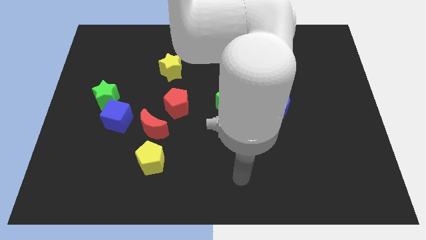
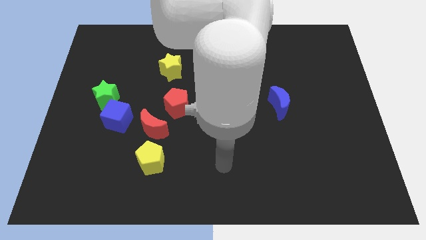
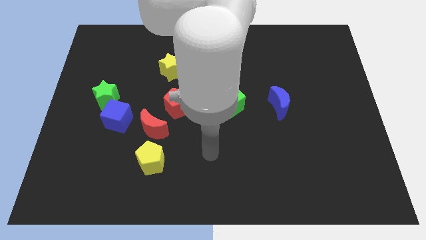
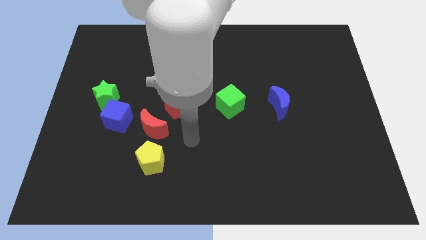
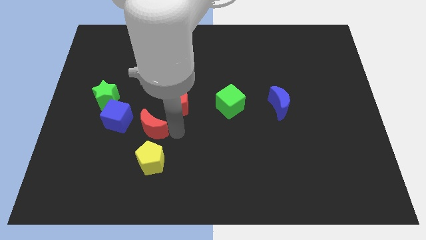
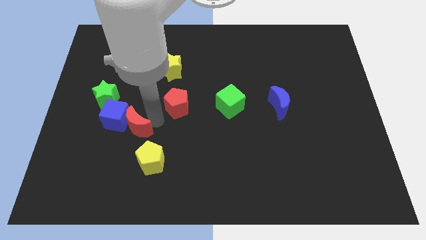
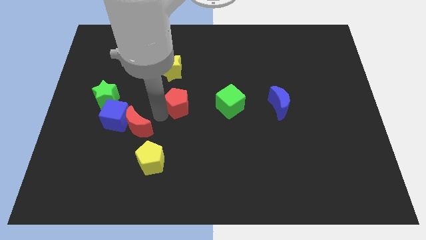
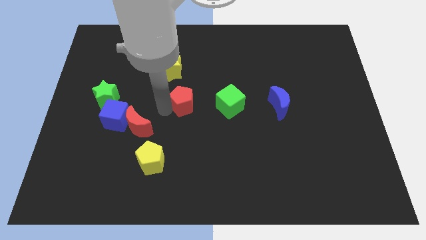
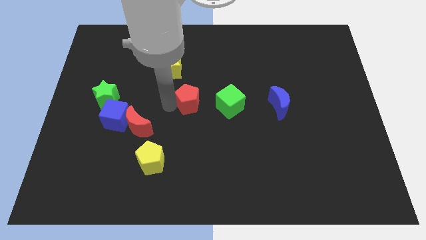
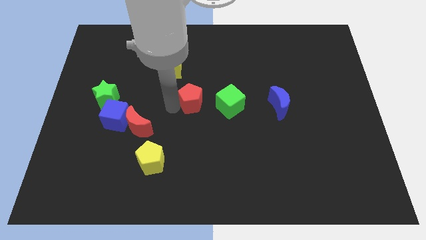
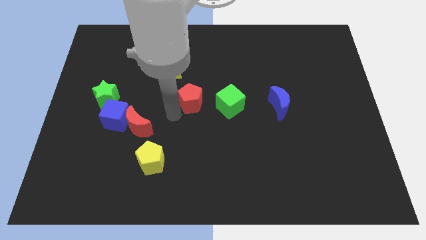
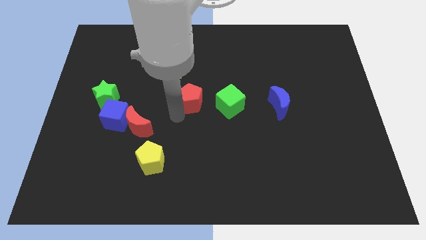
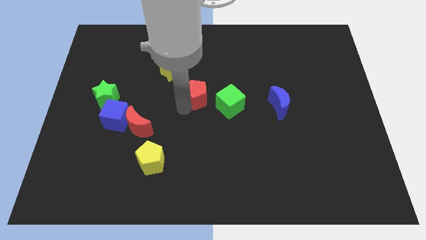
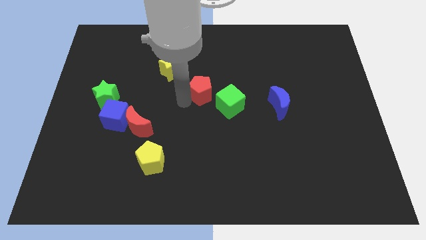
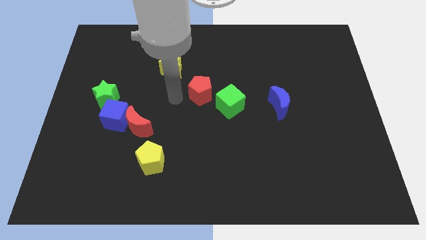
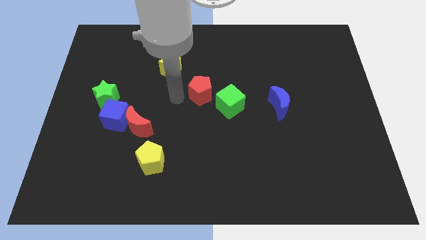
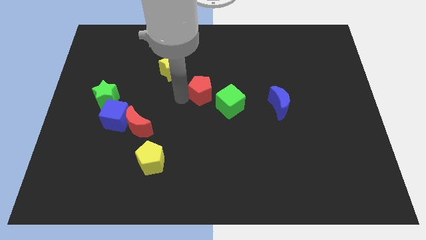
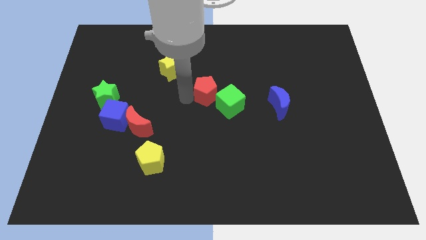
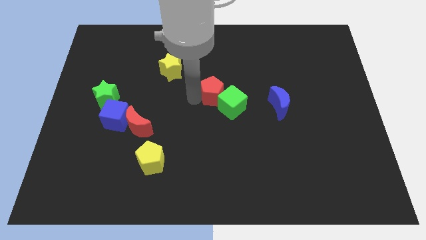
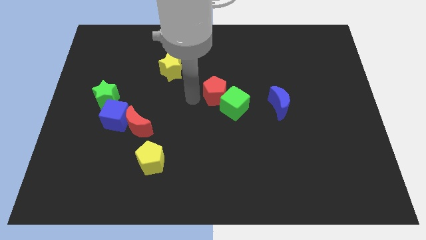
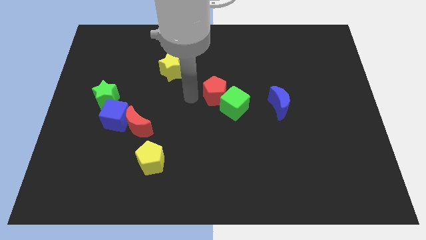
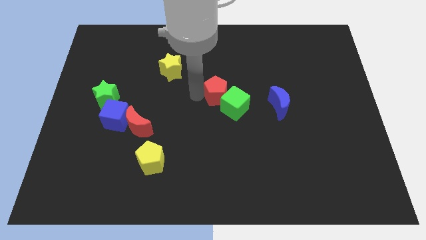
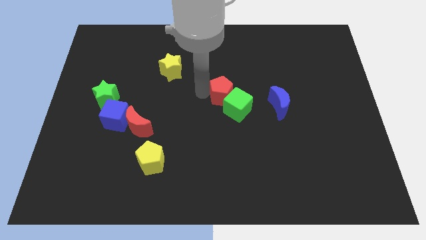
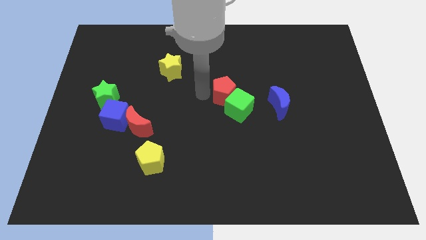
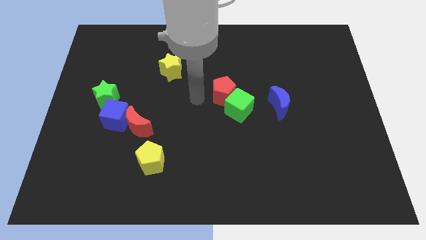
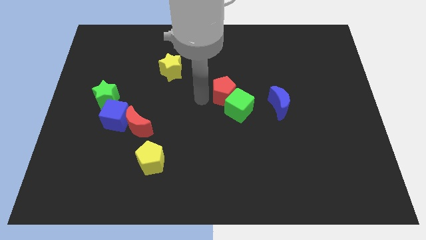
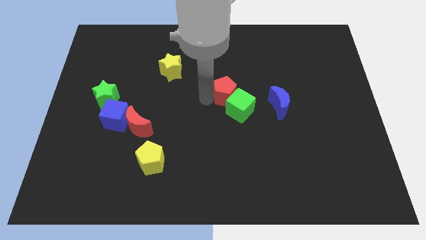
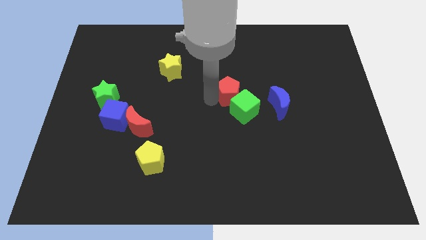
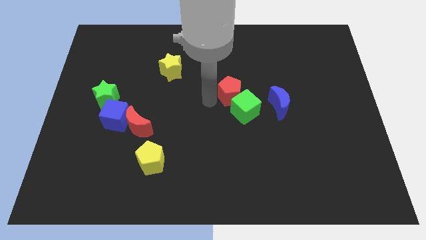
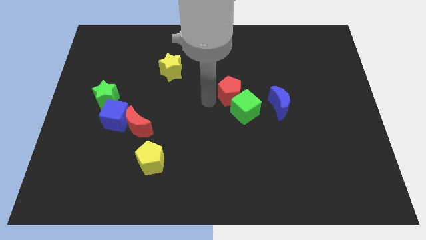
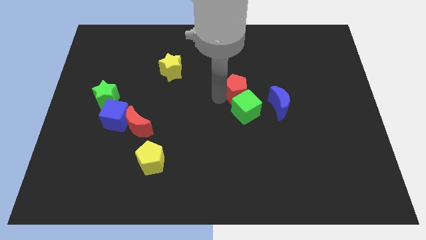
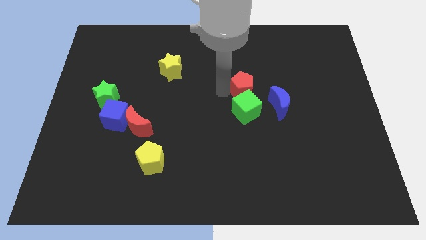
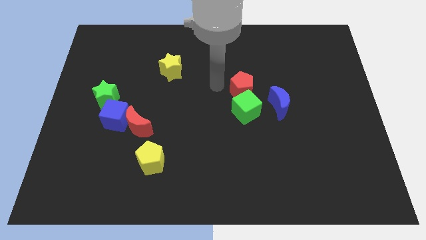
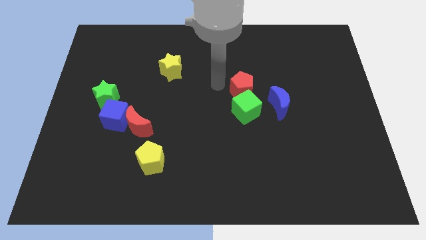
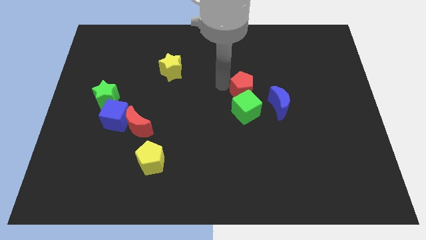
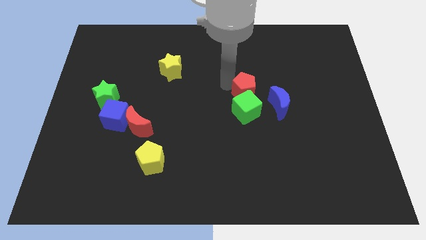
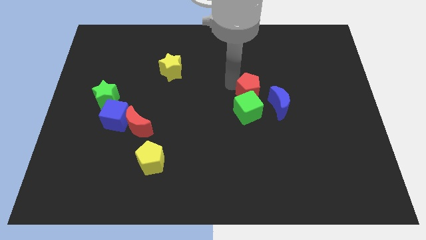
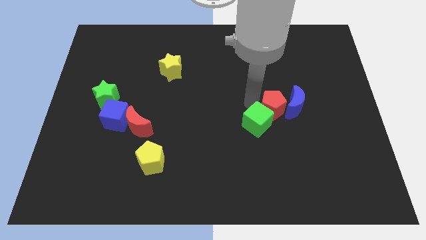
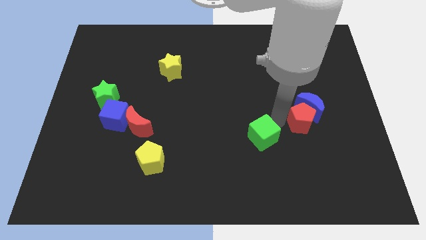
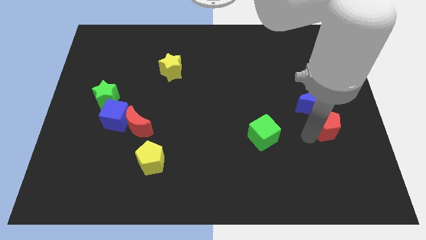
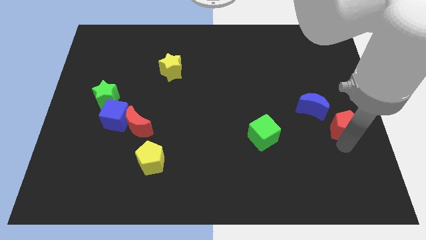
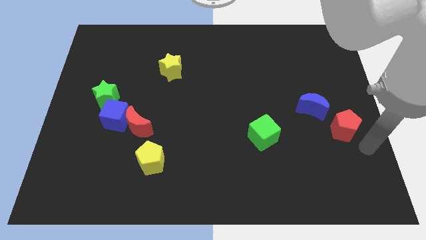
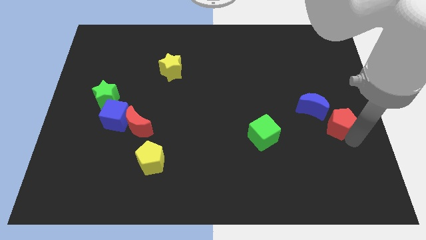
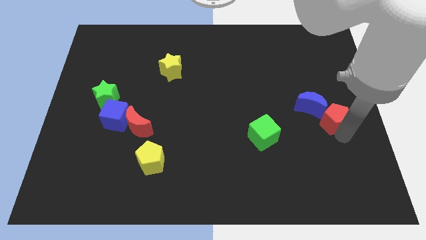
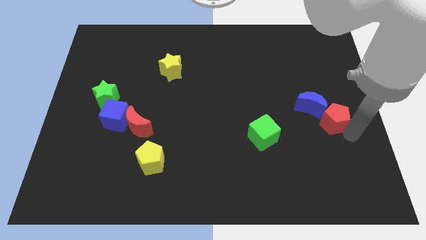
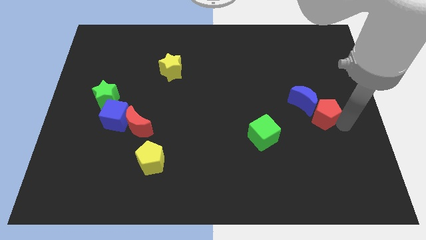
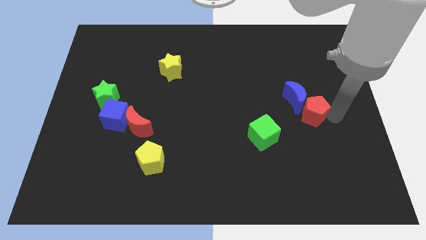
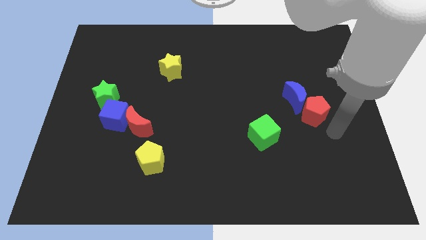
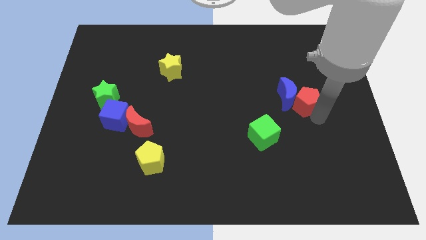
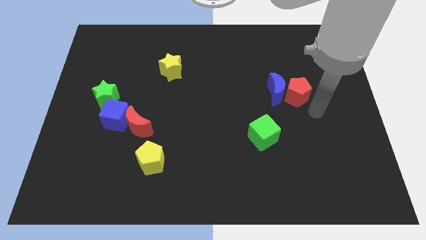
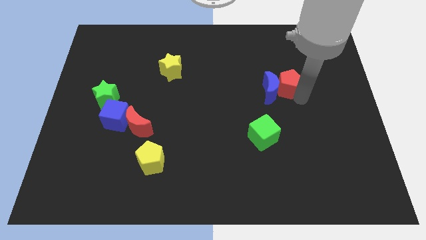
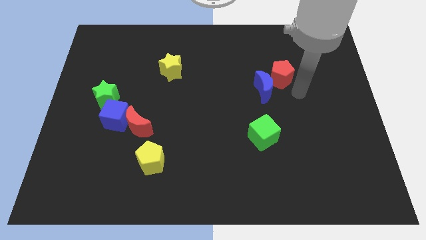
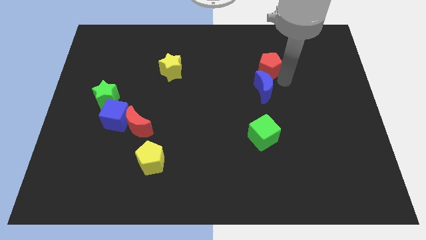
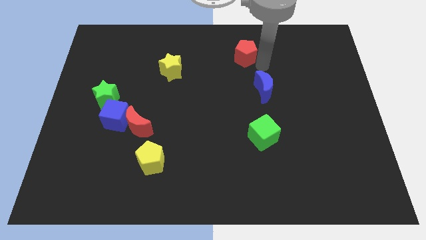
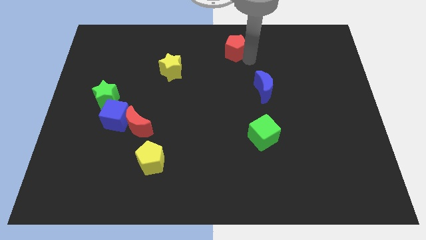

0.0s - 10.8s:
slide the red pentagon to the towards your base

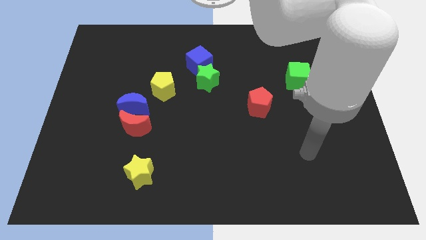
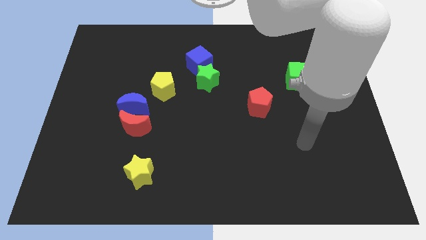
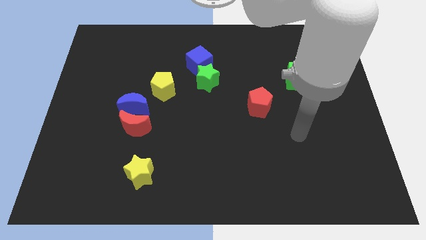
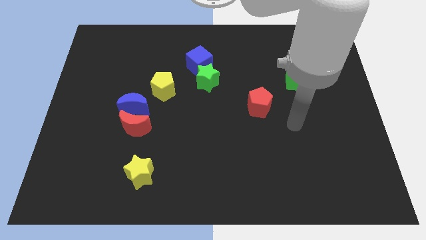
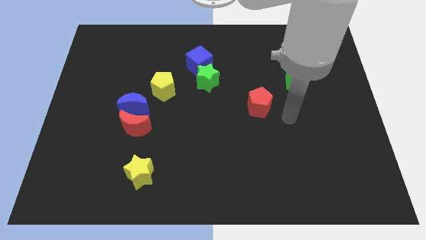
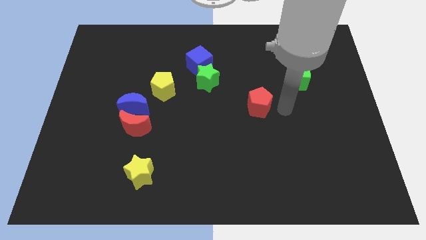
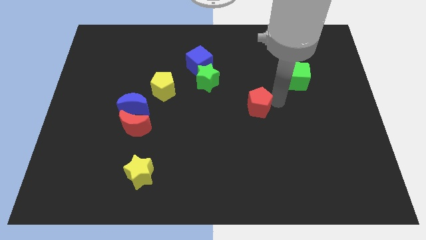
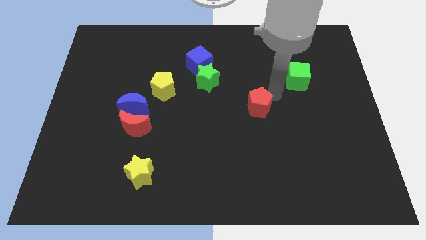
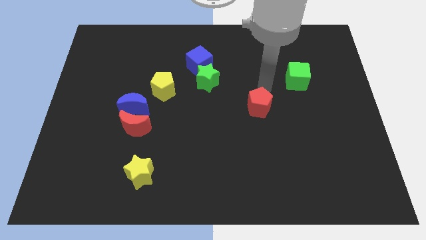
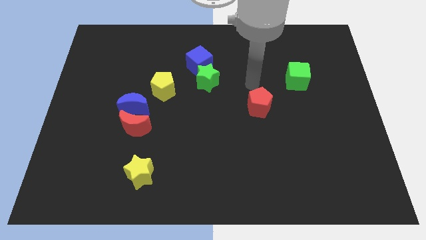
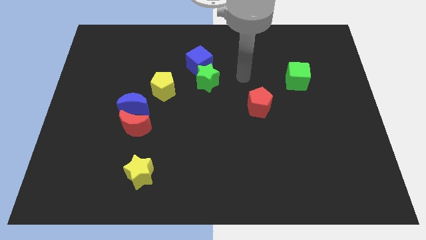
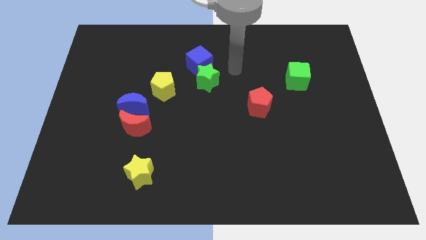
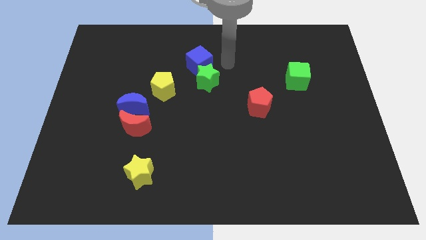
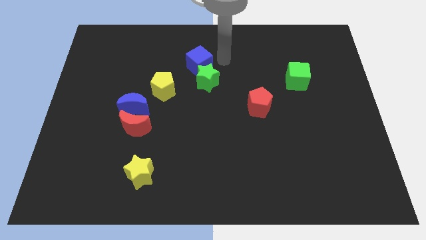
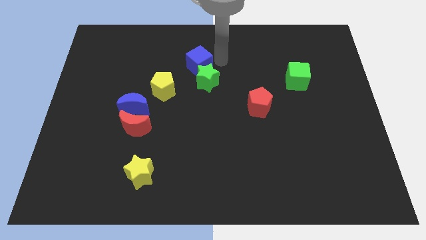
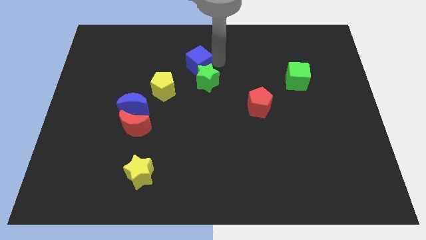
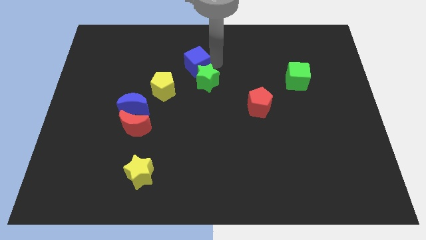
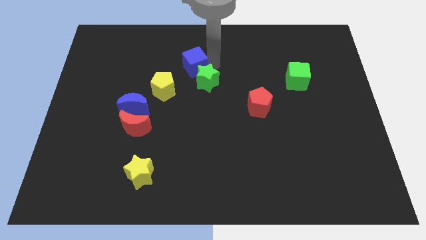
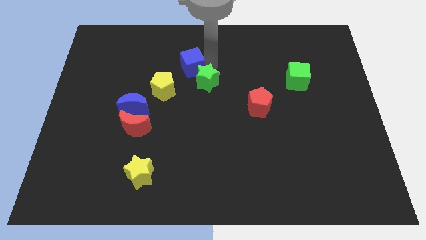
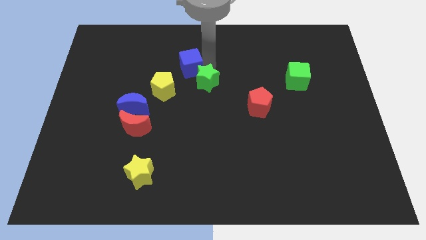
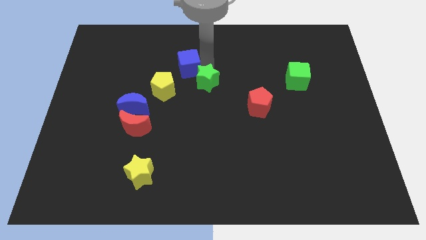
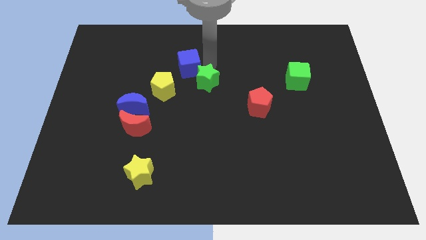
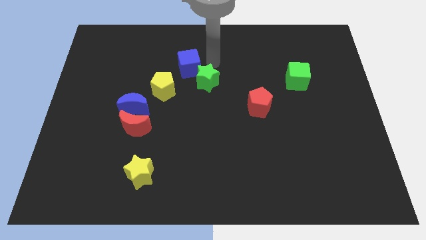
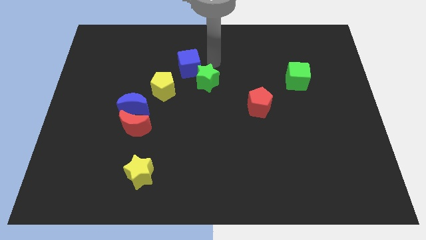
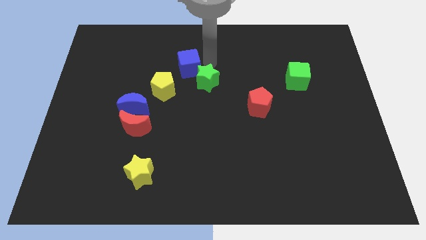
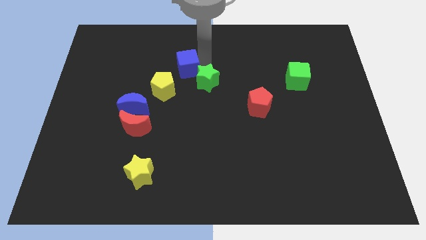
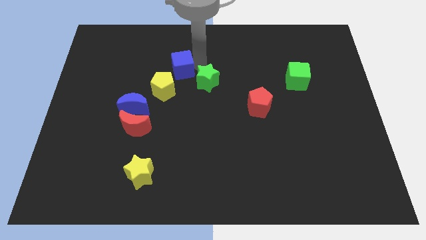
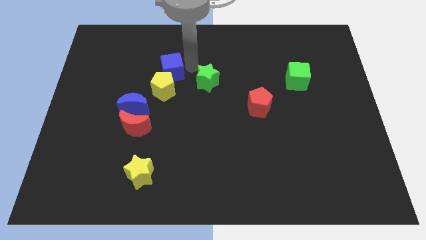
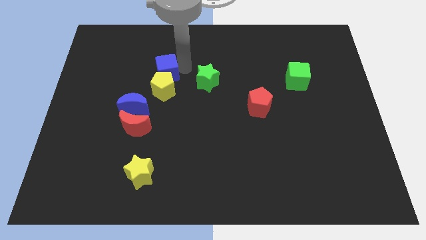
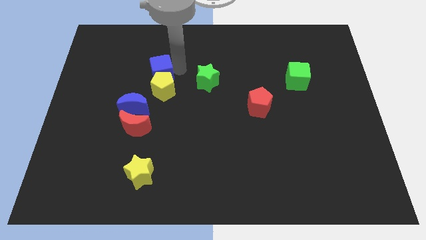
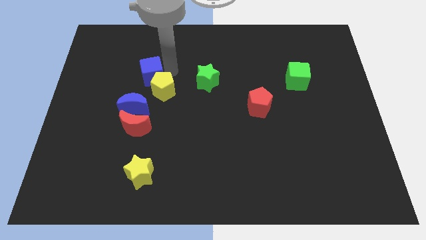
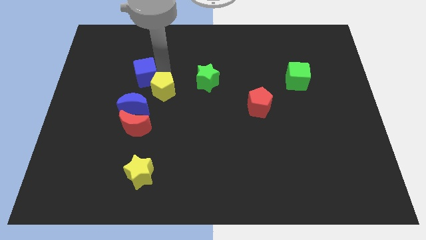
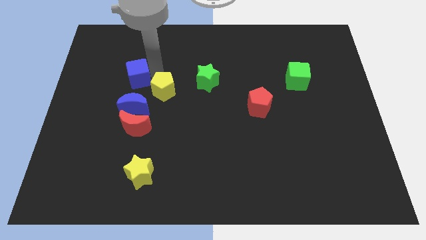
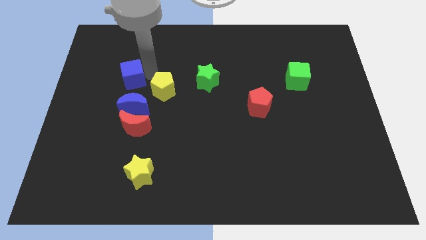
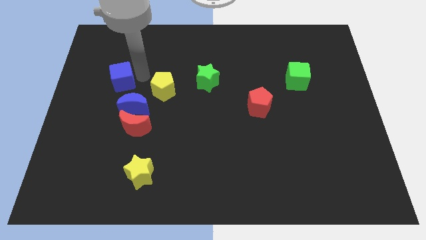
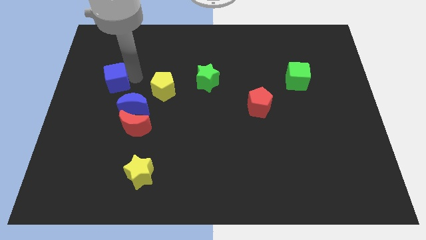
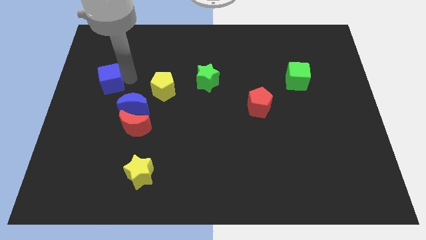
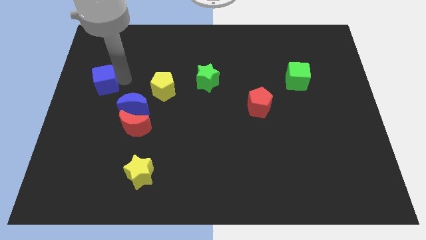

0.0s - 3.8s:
push the blue cube to the left side of the board
